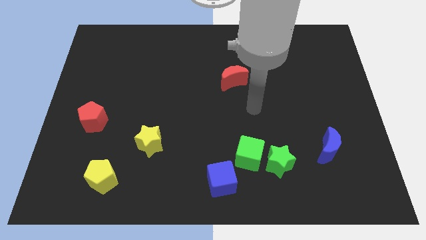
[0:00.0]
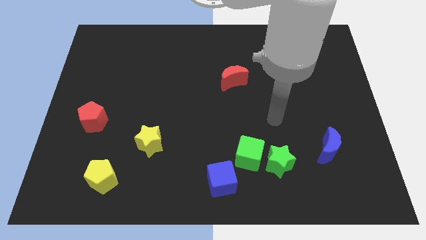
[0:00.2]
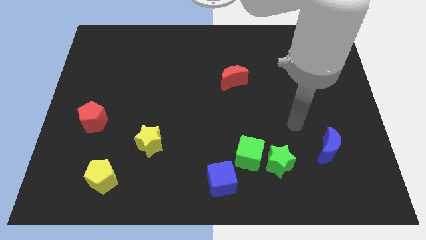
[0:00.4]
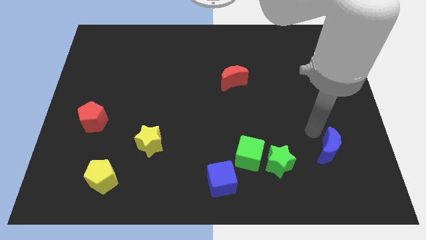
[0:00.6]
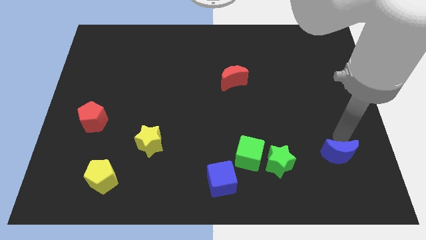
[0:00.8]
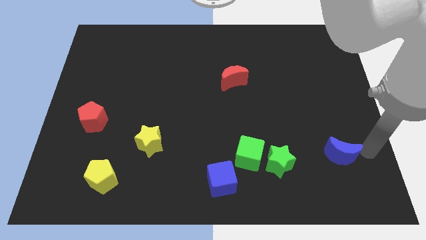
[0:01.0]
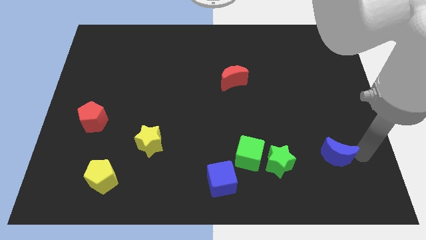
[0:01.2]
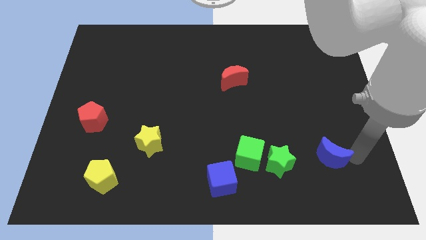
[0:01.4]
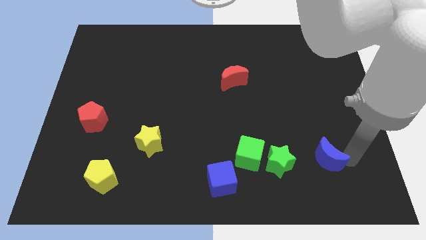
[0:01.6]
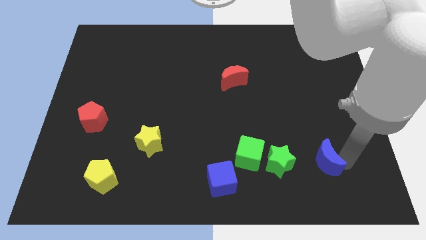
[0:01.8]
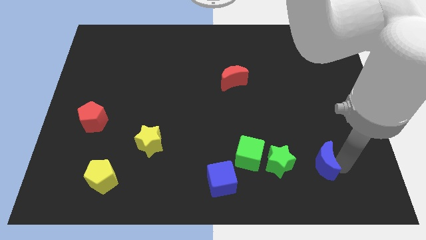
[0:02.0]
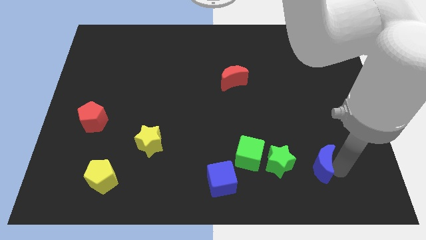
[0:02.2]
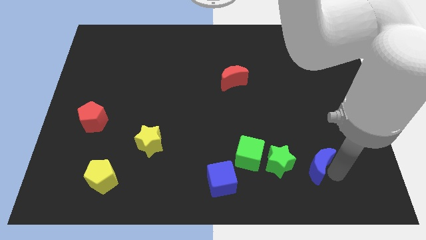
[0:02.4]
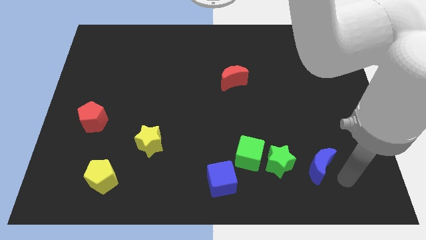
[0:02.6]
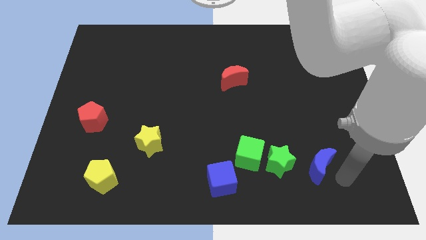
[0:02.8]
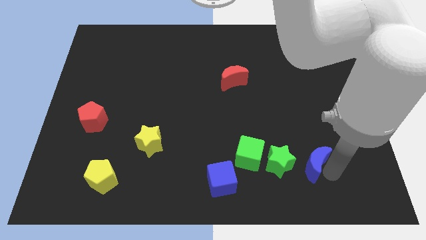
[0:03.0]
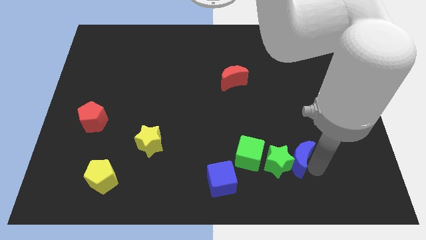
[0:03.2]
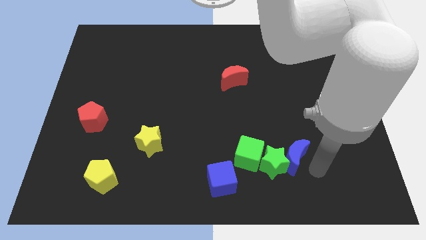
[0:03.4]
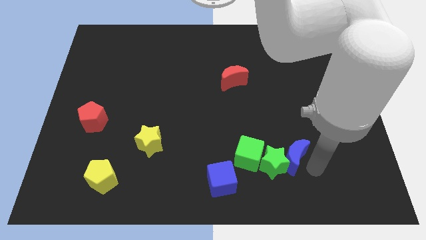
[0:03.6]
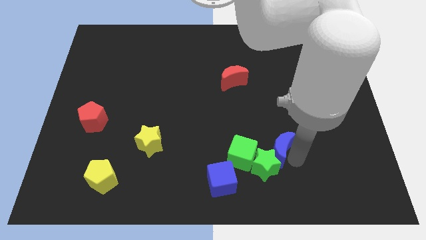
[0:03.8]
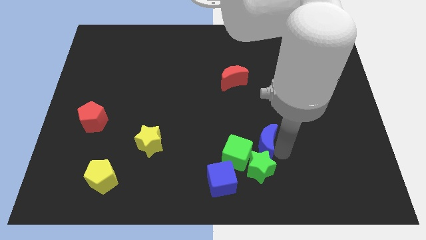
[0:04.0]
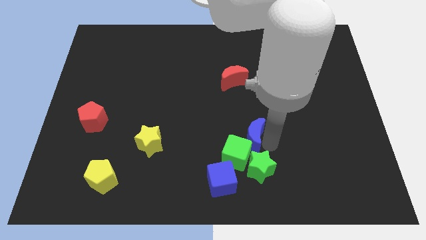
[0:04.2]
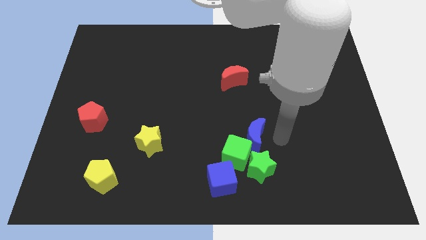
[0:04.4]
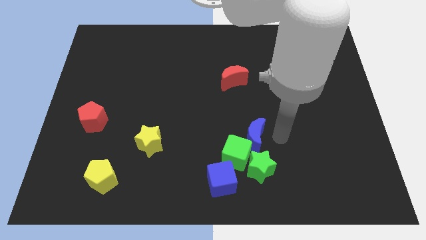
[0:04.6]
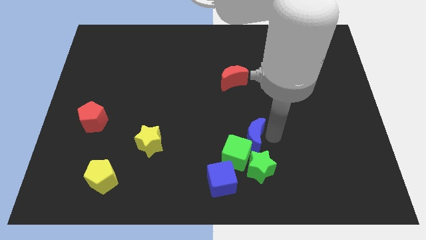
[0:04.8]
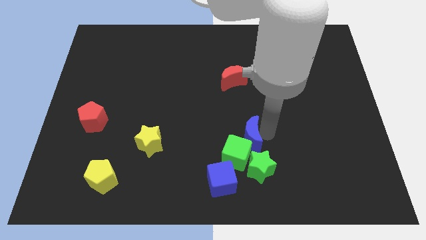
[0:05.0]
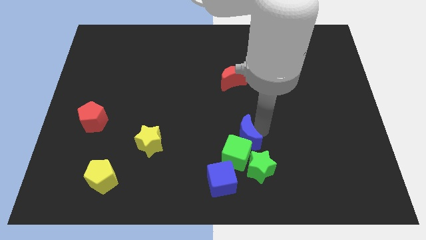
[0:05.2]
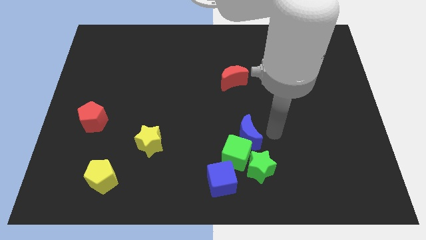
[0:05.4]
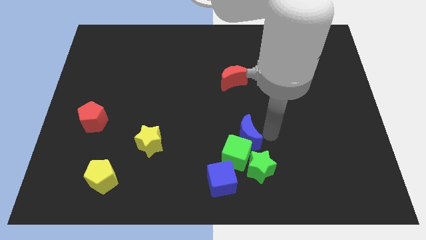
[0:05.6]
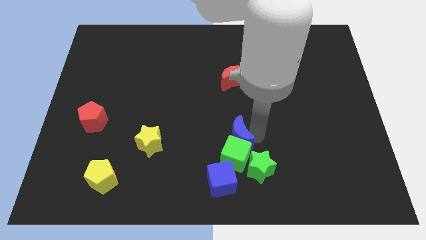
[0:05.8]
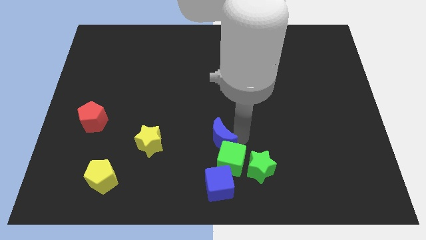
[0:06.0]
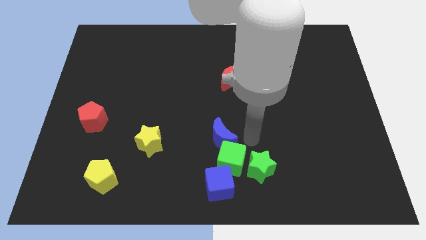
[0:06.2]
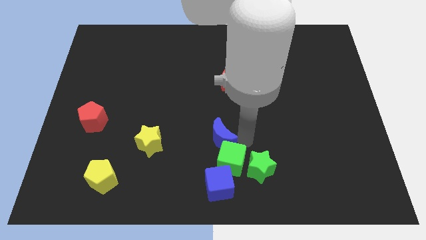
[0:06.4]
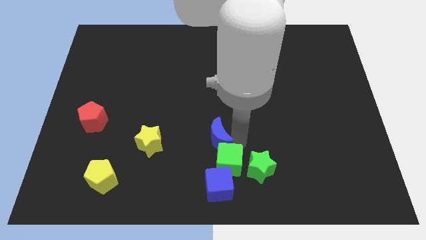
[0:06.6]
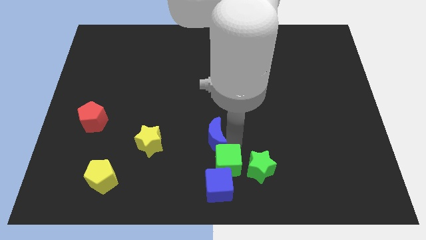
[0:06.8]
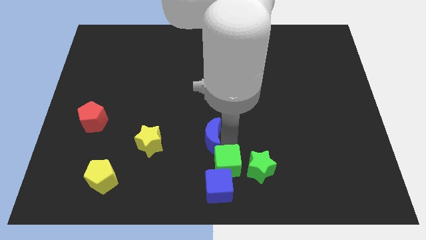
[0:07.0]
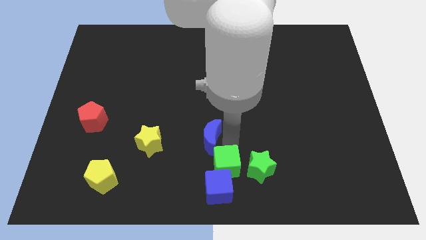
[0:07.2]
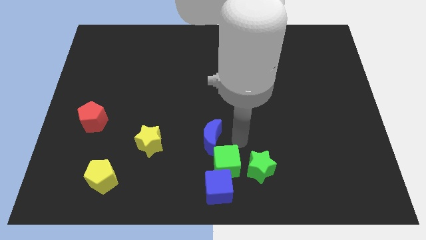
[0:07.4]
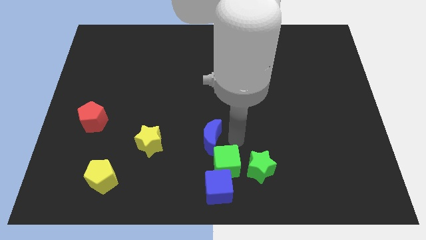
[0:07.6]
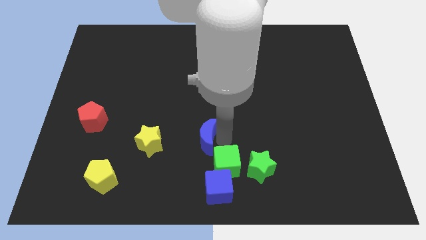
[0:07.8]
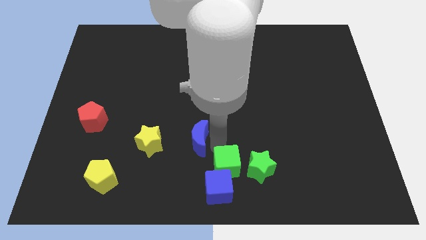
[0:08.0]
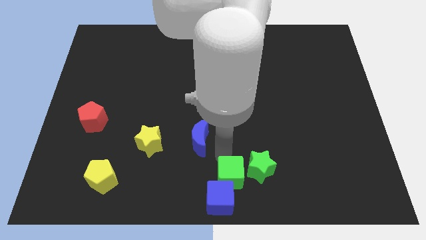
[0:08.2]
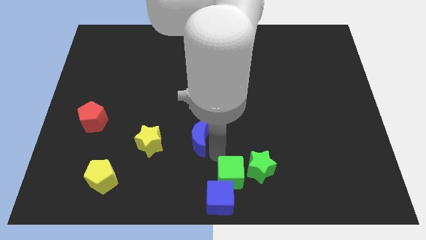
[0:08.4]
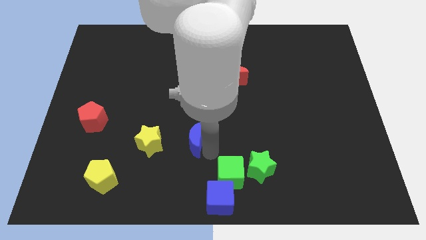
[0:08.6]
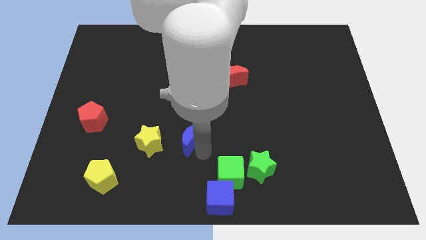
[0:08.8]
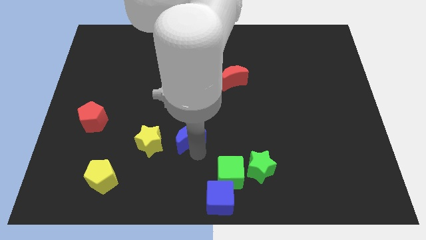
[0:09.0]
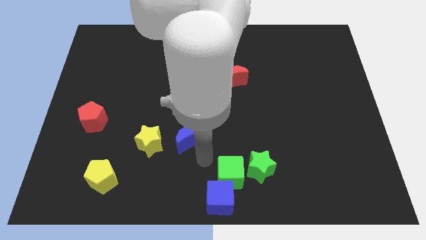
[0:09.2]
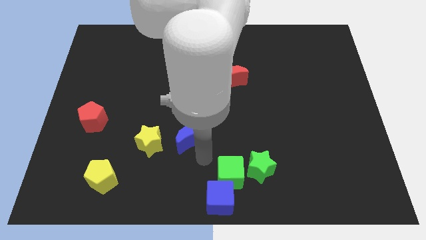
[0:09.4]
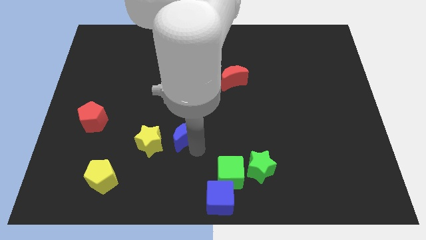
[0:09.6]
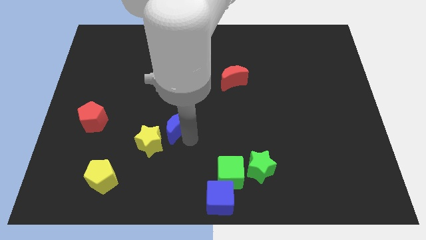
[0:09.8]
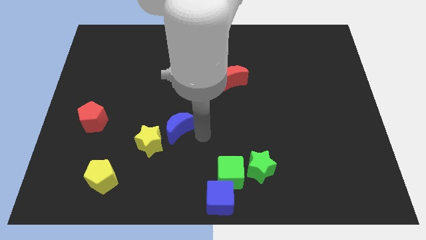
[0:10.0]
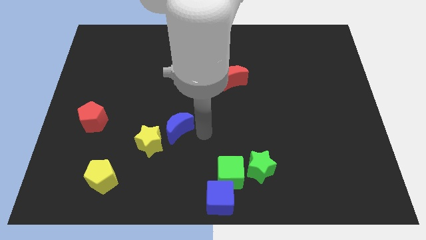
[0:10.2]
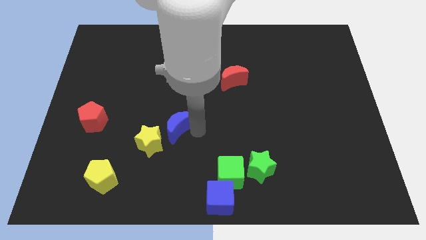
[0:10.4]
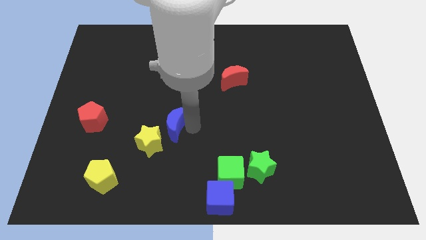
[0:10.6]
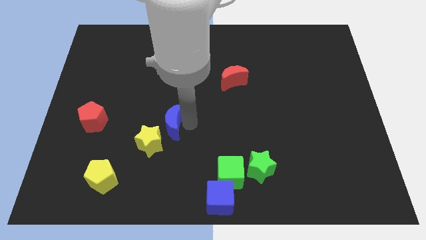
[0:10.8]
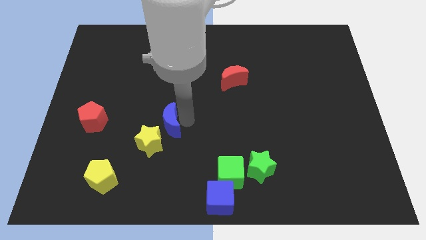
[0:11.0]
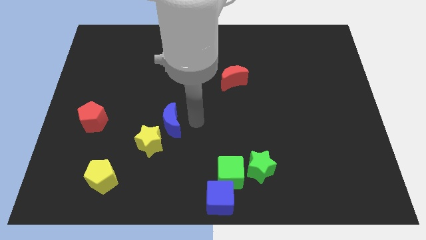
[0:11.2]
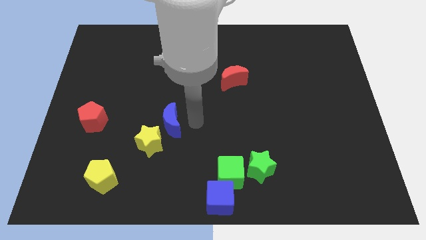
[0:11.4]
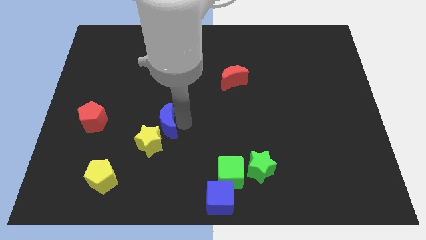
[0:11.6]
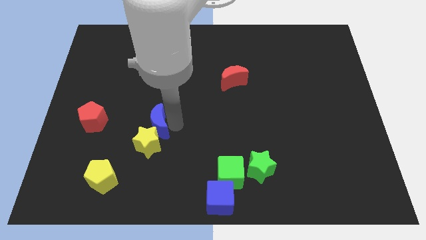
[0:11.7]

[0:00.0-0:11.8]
slide the blue moon to the top left of the yellow star

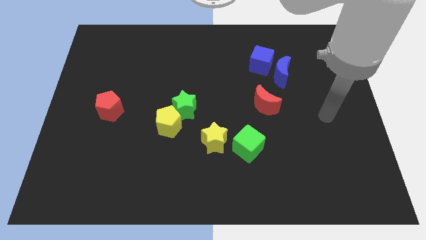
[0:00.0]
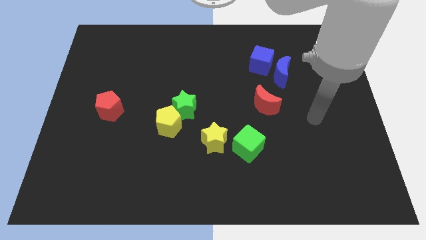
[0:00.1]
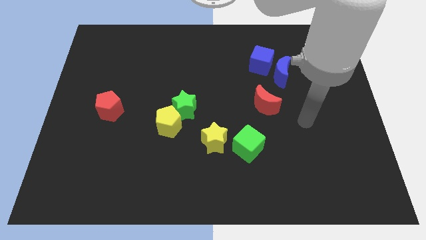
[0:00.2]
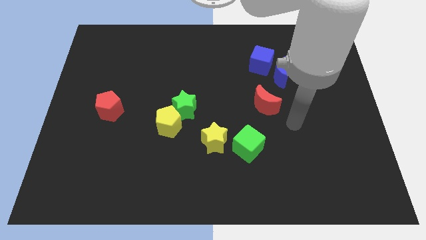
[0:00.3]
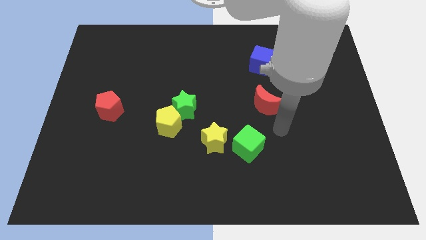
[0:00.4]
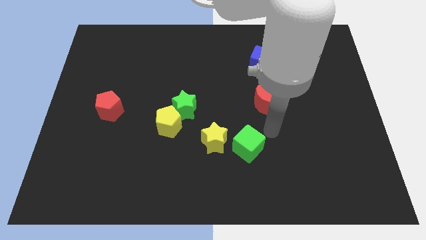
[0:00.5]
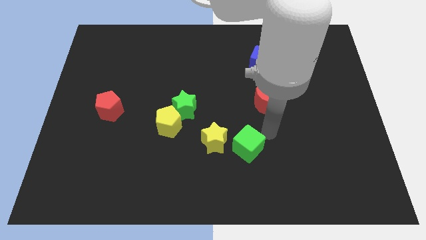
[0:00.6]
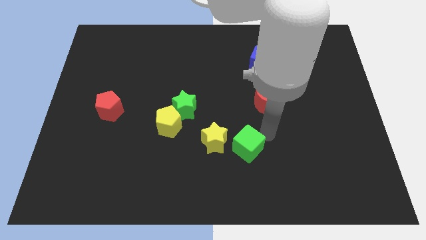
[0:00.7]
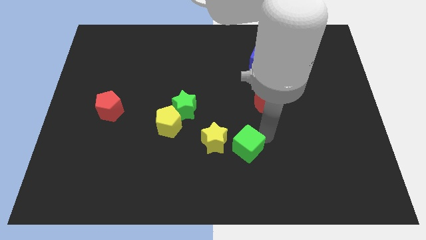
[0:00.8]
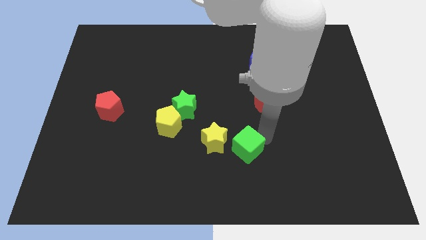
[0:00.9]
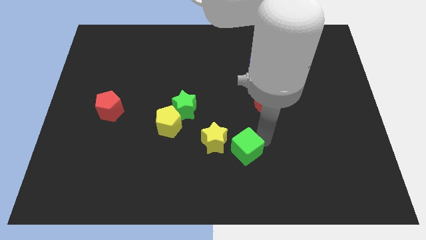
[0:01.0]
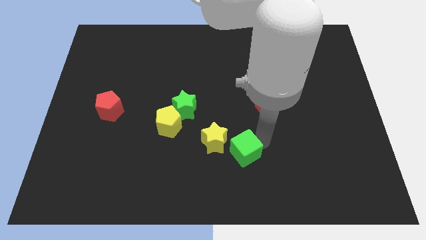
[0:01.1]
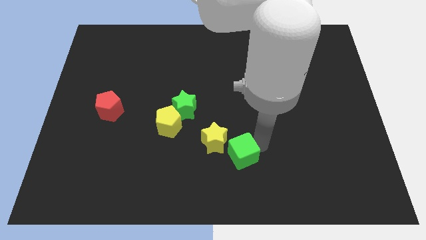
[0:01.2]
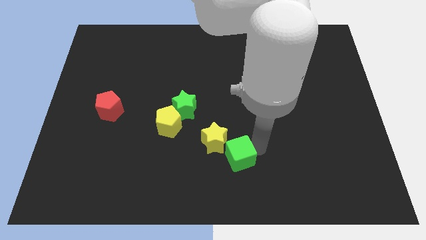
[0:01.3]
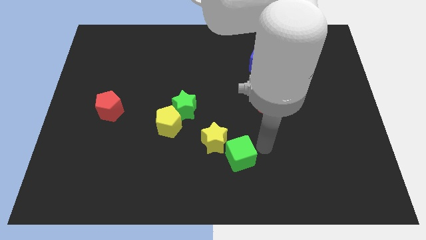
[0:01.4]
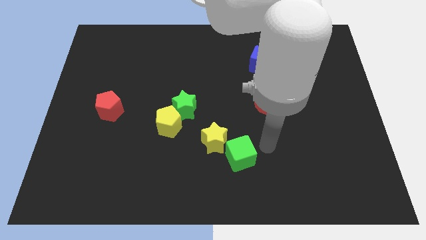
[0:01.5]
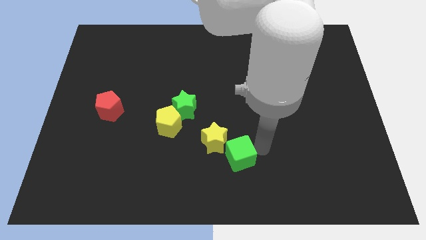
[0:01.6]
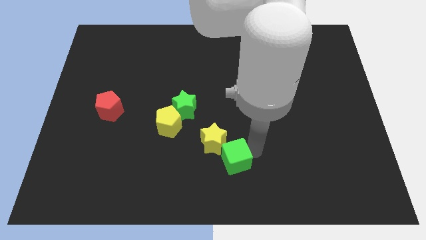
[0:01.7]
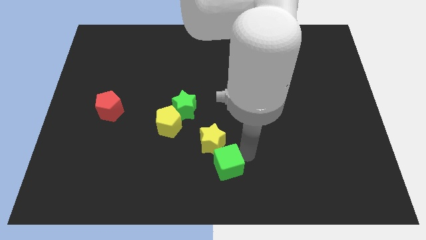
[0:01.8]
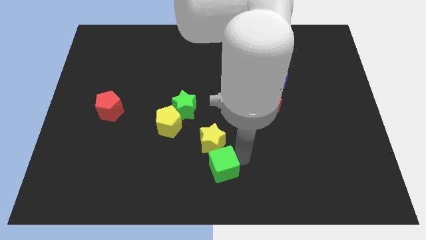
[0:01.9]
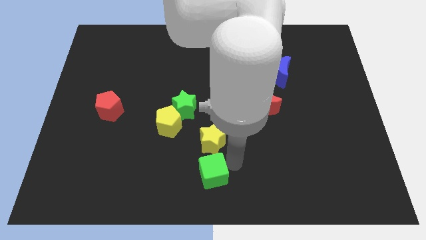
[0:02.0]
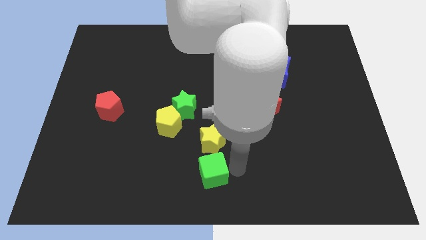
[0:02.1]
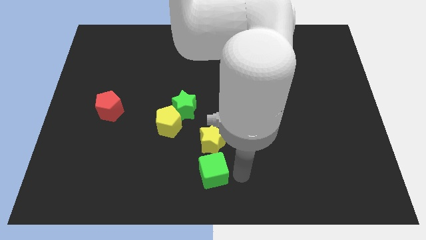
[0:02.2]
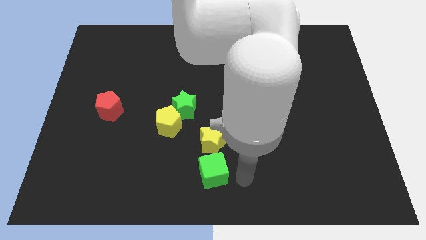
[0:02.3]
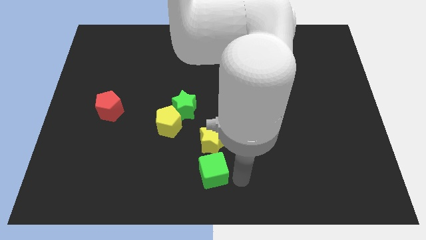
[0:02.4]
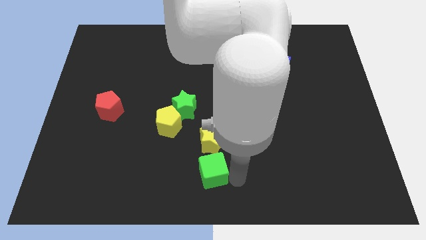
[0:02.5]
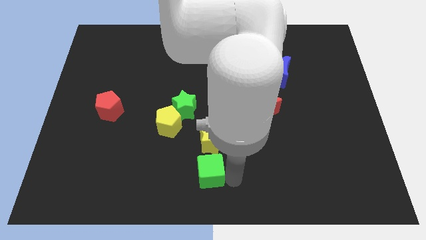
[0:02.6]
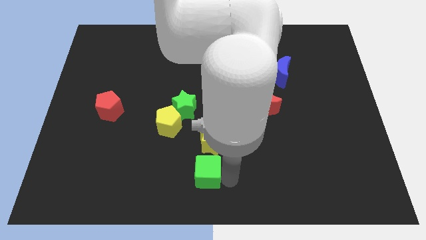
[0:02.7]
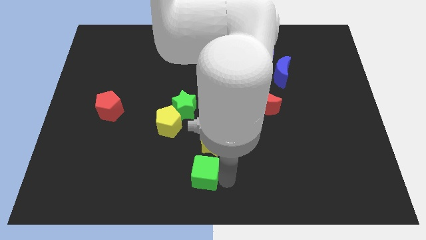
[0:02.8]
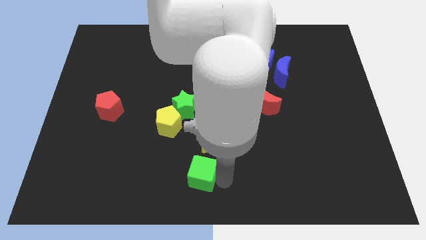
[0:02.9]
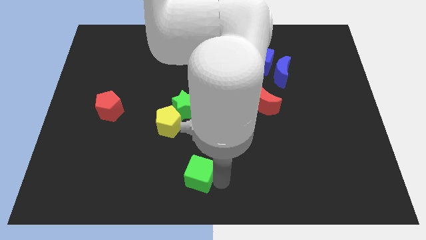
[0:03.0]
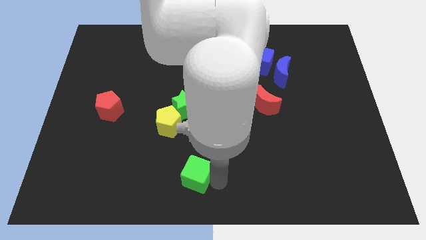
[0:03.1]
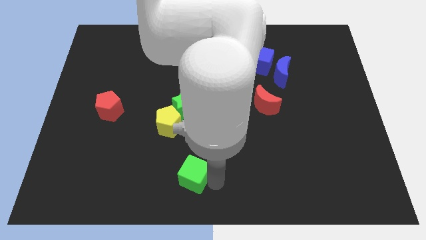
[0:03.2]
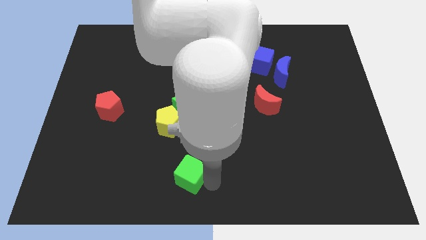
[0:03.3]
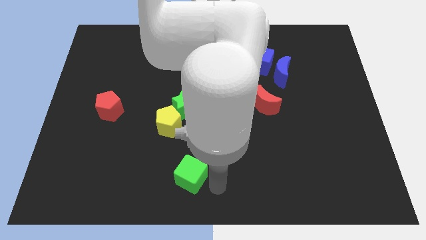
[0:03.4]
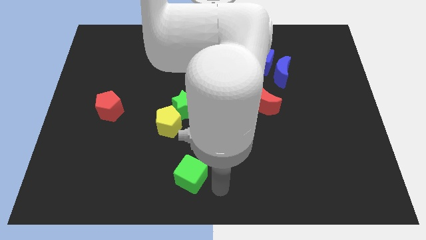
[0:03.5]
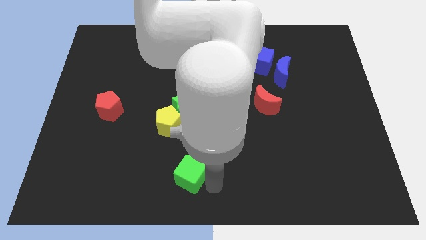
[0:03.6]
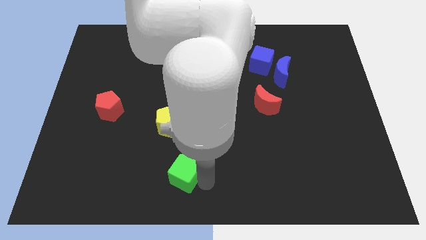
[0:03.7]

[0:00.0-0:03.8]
push the green cube to the bottom of the yellow pentagon
